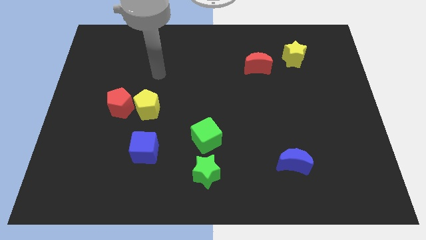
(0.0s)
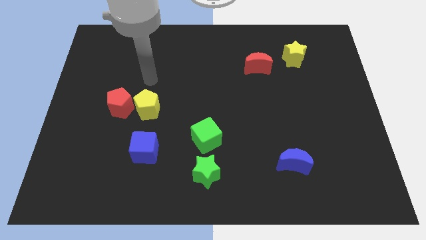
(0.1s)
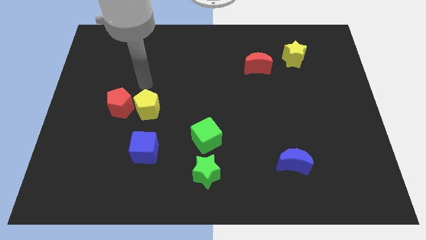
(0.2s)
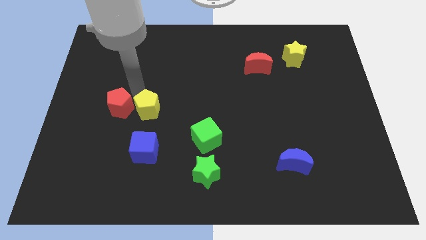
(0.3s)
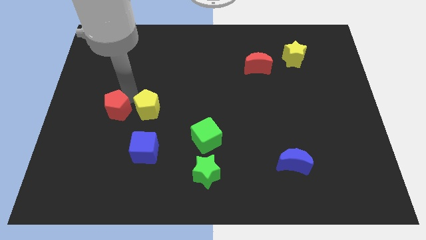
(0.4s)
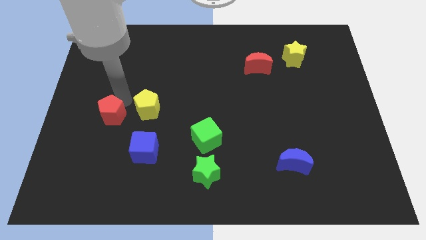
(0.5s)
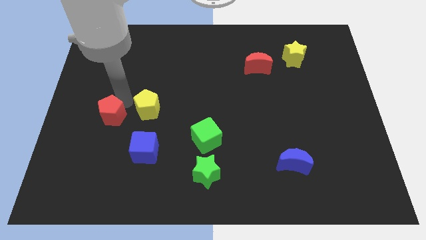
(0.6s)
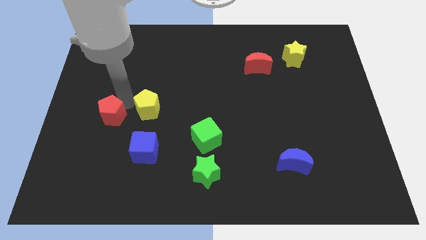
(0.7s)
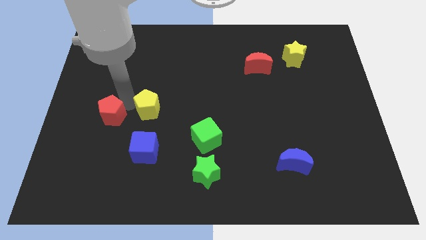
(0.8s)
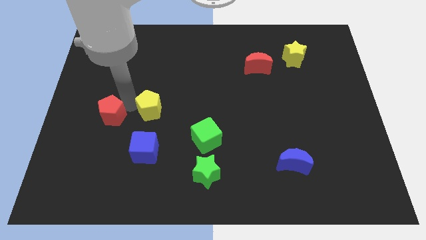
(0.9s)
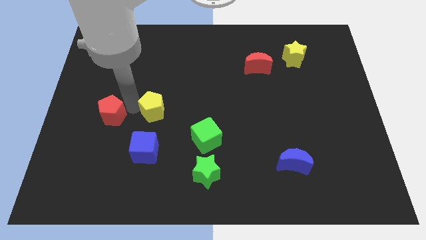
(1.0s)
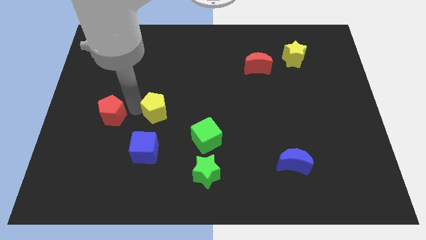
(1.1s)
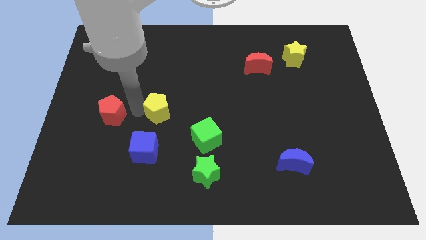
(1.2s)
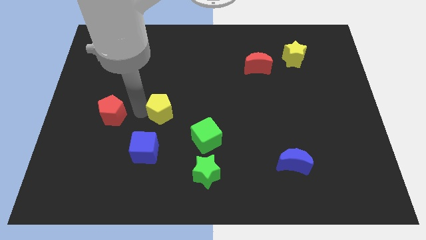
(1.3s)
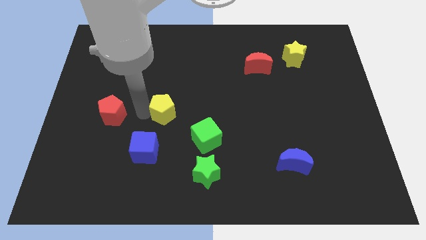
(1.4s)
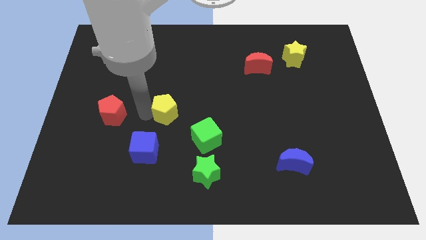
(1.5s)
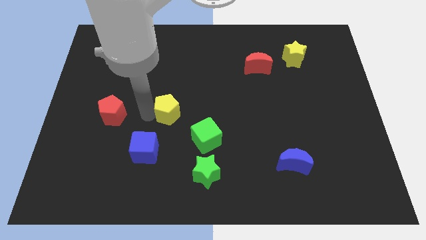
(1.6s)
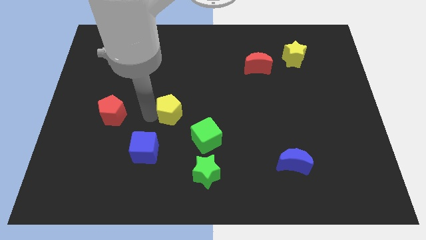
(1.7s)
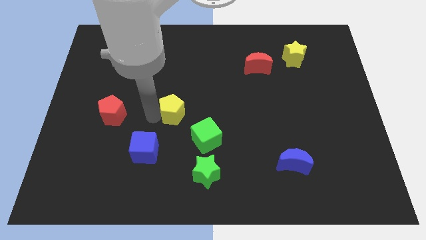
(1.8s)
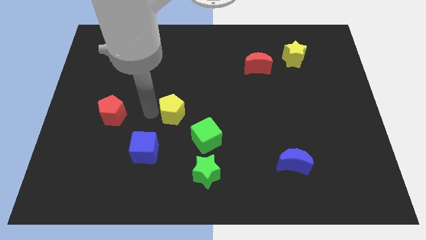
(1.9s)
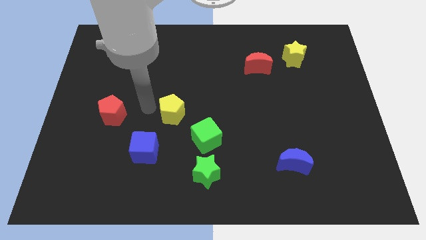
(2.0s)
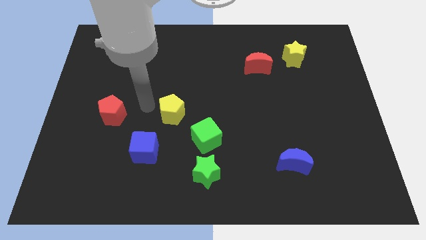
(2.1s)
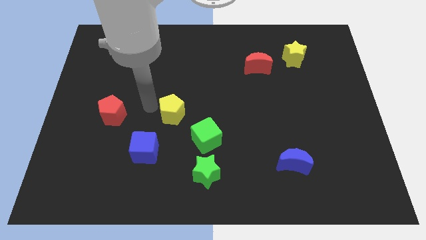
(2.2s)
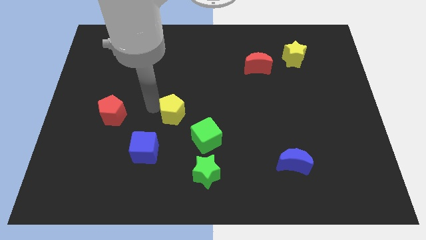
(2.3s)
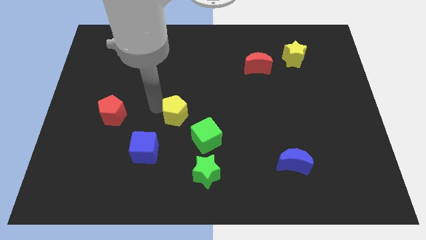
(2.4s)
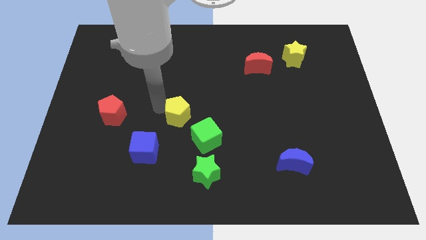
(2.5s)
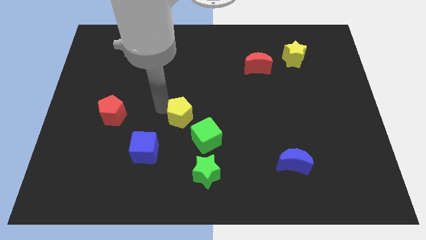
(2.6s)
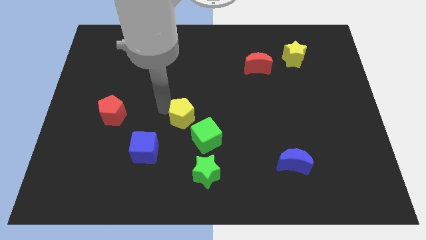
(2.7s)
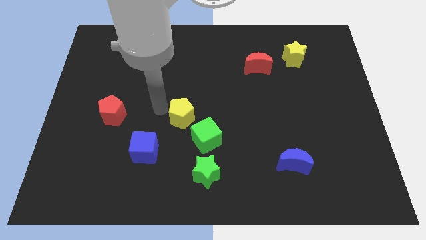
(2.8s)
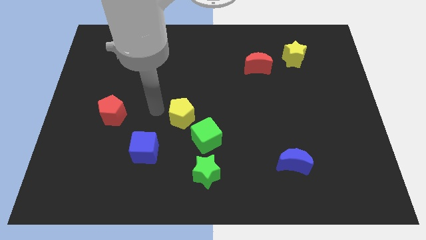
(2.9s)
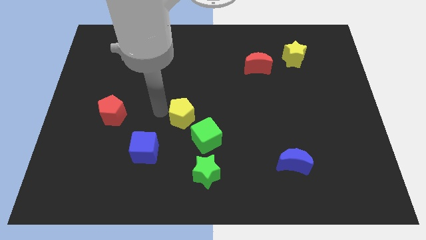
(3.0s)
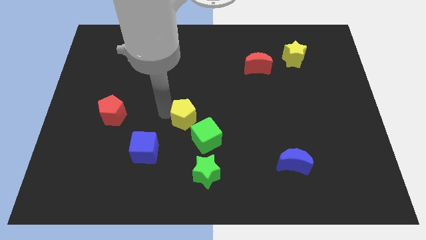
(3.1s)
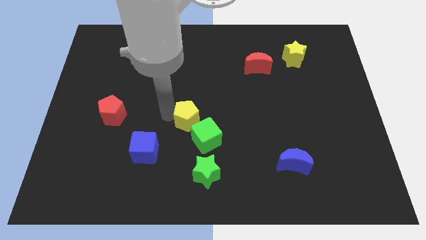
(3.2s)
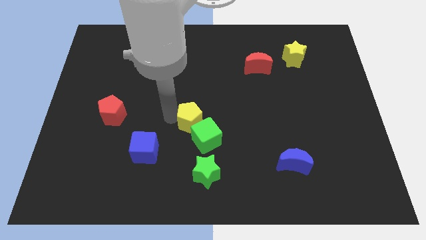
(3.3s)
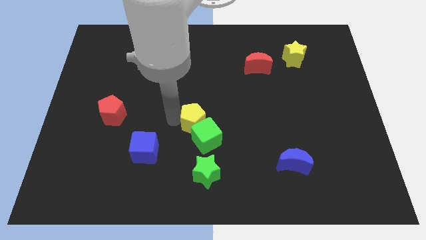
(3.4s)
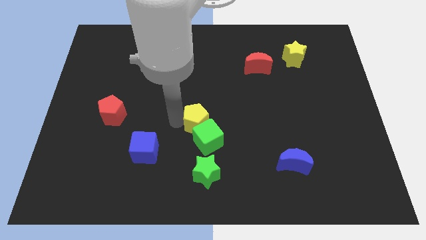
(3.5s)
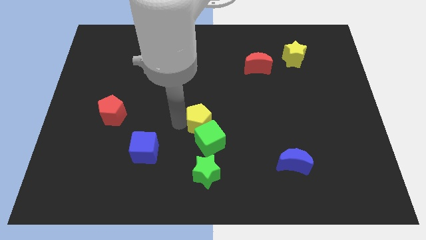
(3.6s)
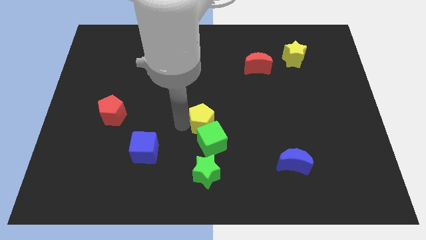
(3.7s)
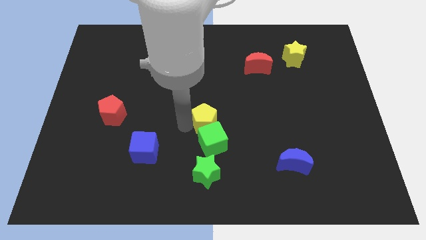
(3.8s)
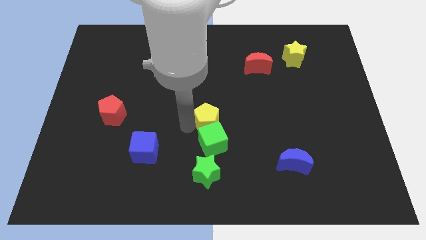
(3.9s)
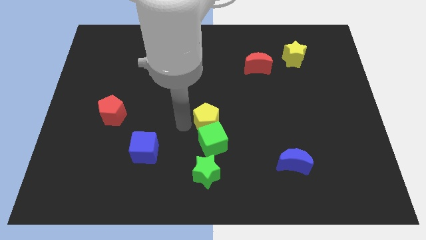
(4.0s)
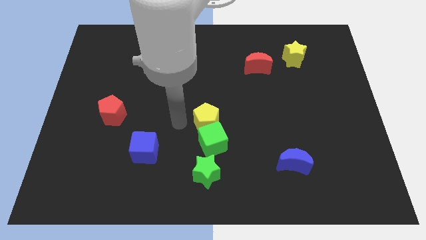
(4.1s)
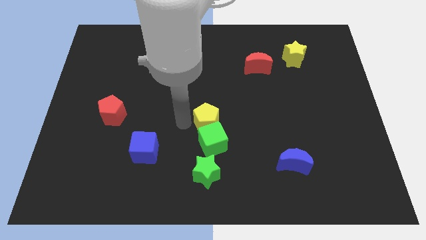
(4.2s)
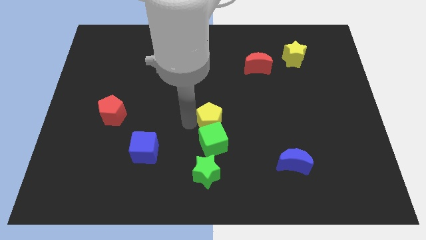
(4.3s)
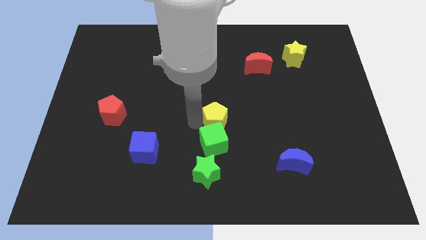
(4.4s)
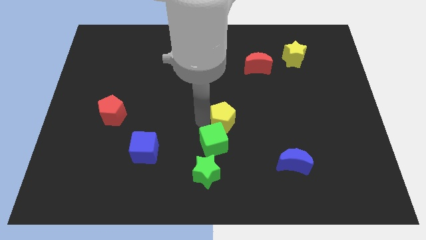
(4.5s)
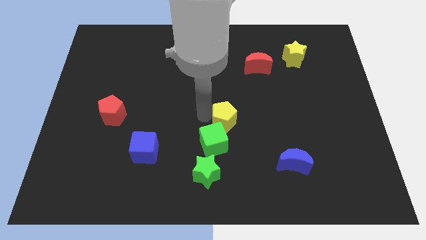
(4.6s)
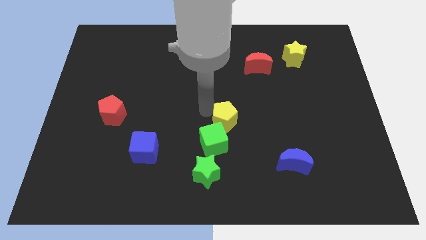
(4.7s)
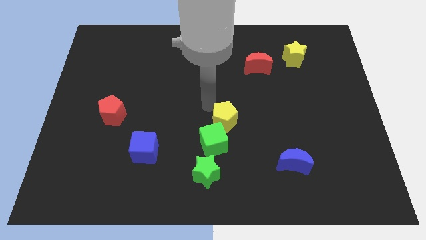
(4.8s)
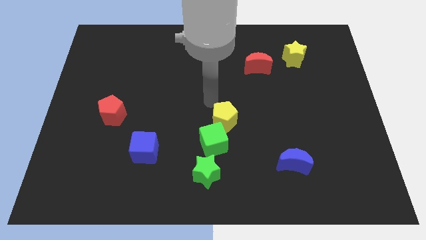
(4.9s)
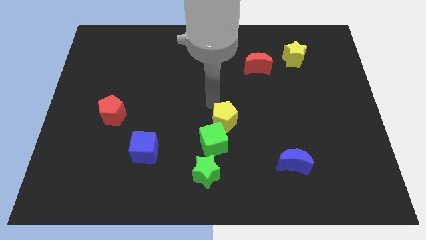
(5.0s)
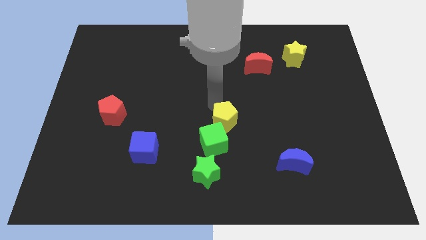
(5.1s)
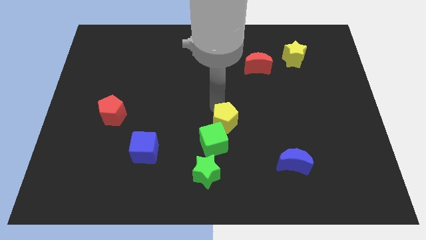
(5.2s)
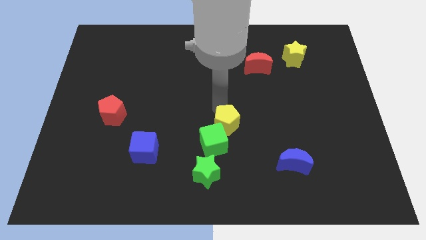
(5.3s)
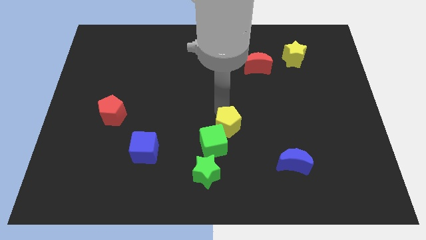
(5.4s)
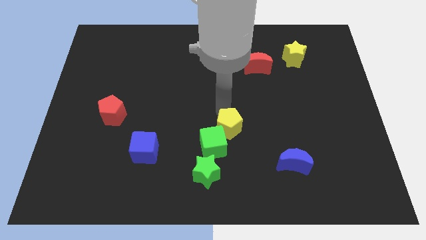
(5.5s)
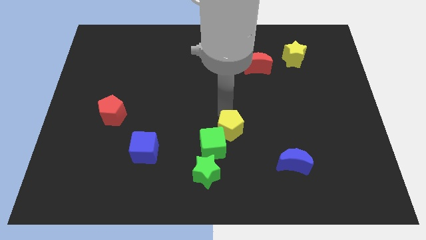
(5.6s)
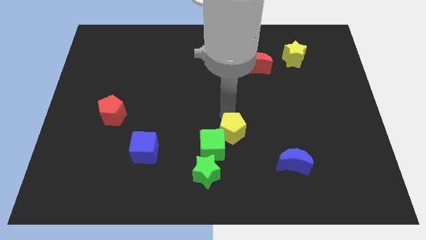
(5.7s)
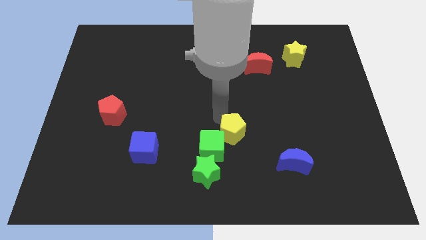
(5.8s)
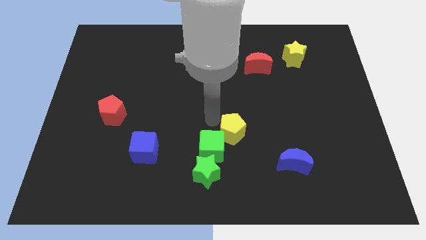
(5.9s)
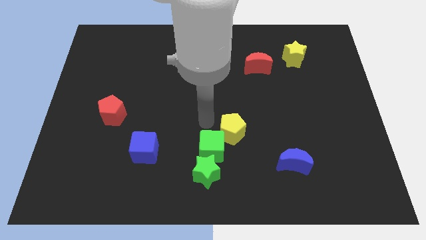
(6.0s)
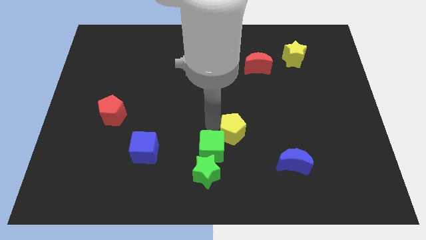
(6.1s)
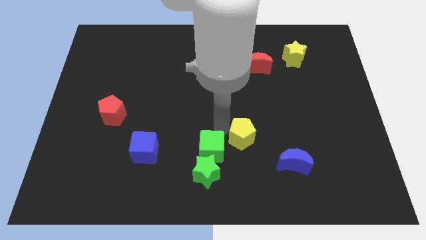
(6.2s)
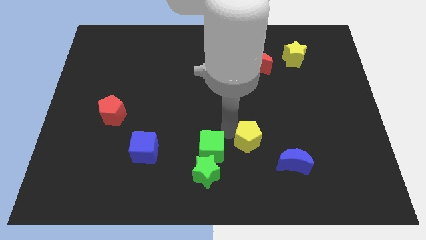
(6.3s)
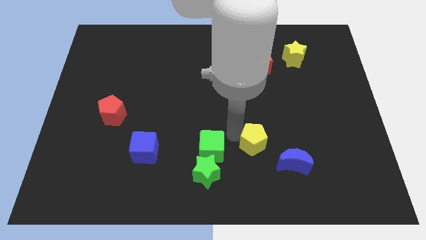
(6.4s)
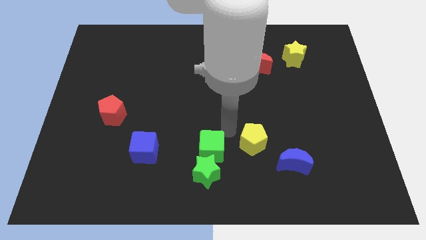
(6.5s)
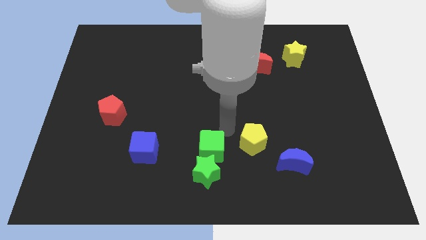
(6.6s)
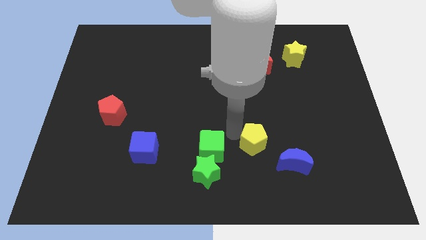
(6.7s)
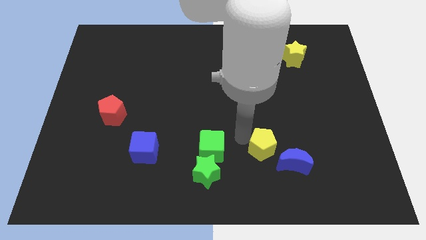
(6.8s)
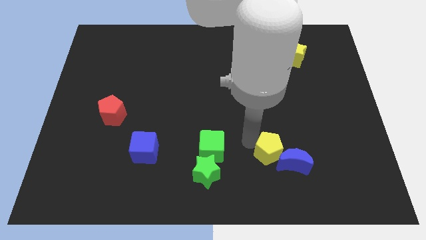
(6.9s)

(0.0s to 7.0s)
put the yellow pentagon to the blue moon

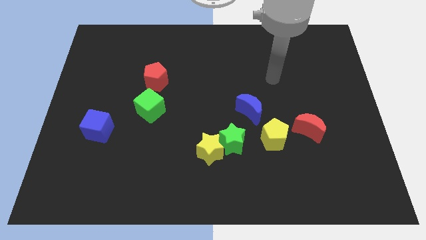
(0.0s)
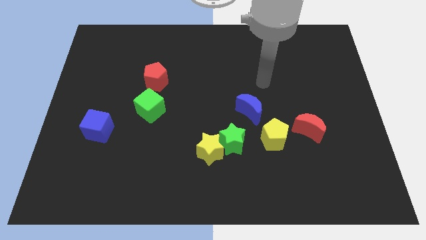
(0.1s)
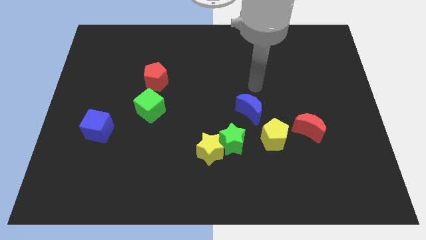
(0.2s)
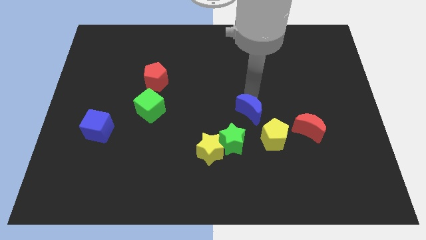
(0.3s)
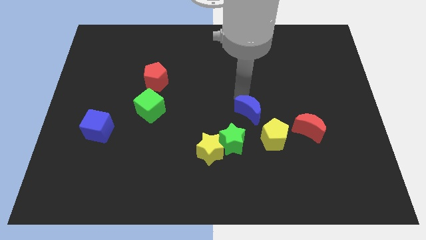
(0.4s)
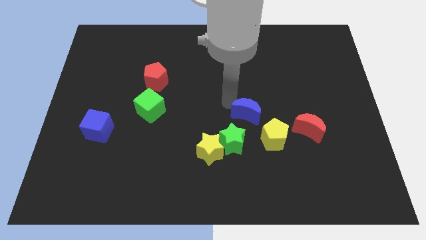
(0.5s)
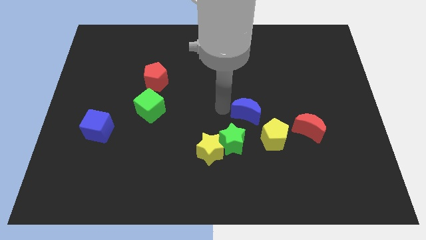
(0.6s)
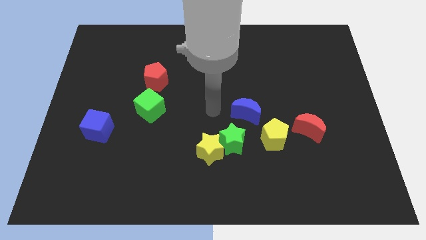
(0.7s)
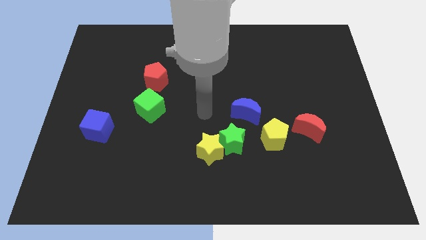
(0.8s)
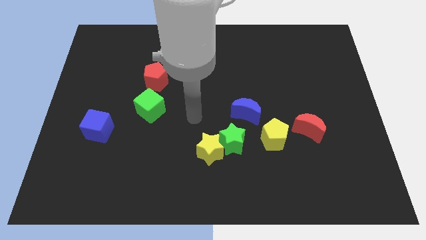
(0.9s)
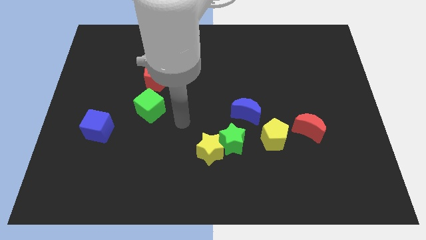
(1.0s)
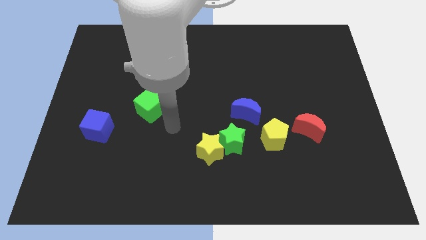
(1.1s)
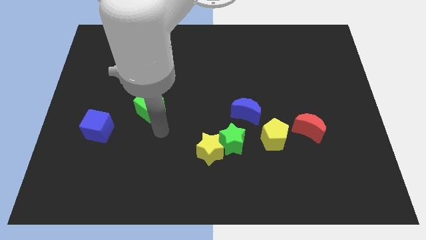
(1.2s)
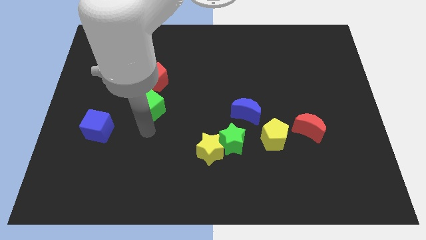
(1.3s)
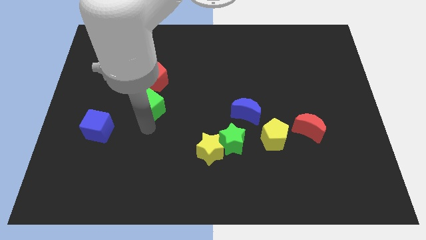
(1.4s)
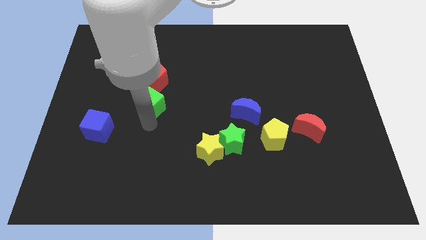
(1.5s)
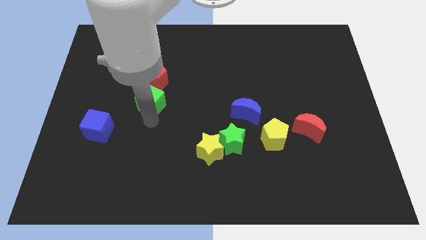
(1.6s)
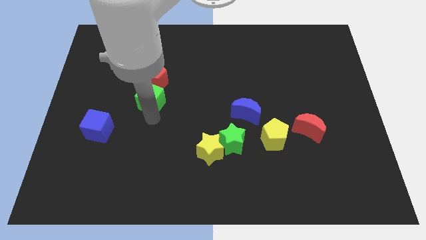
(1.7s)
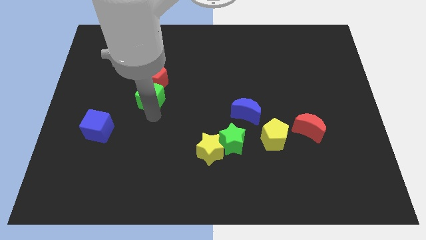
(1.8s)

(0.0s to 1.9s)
push the green cube next to the red pentagon
